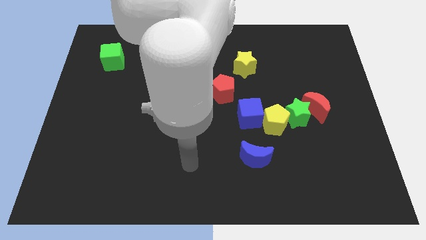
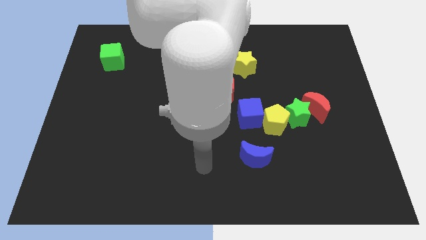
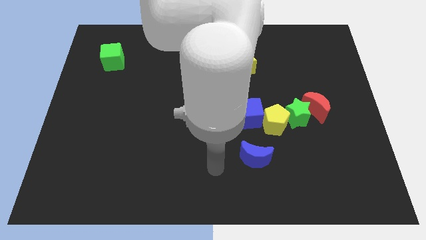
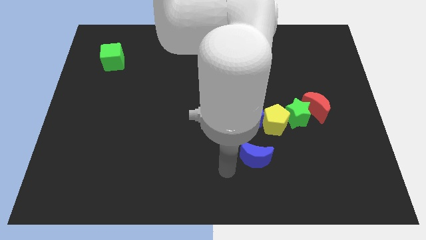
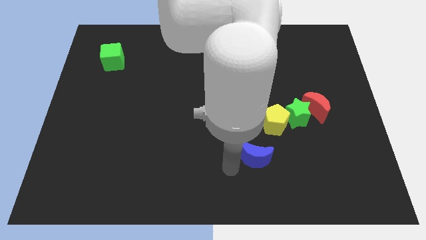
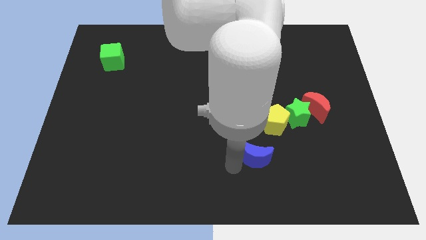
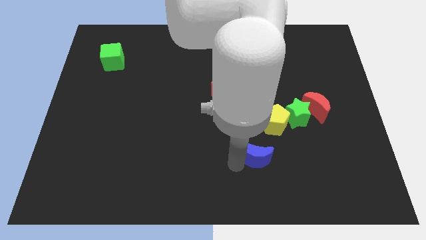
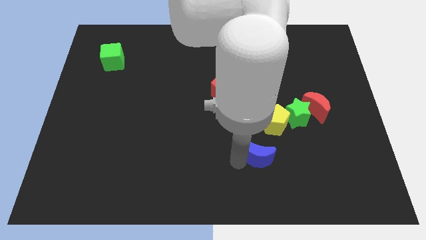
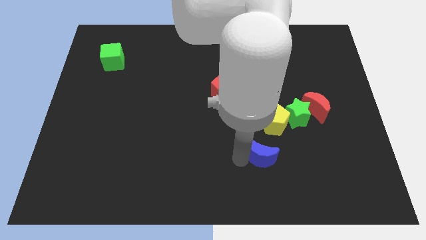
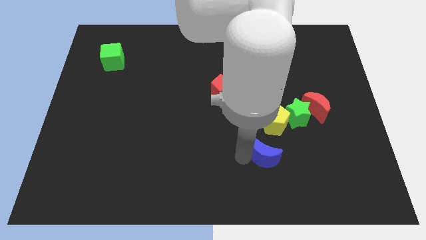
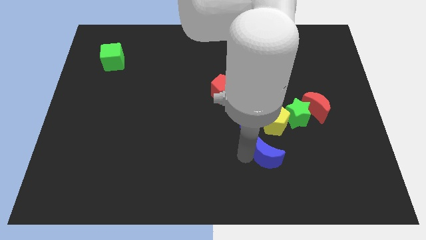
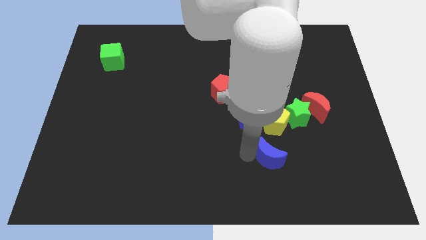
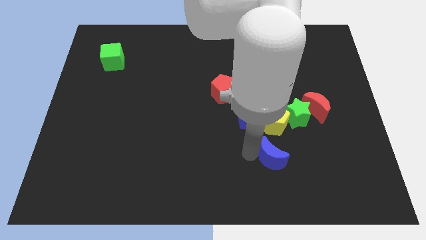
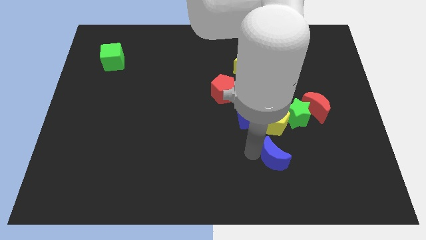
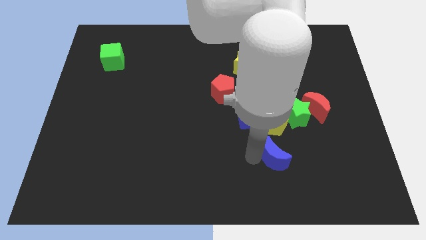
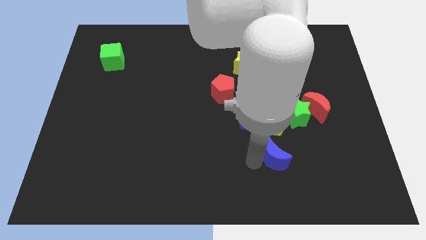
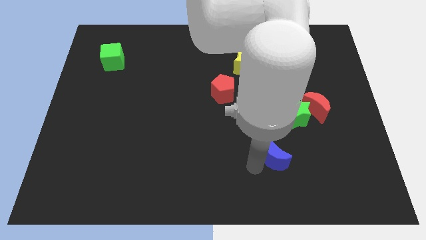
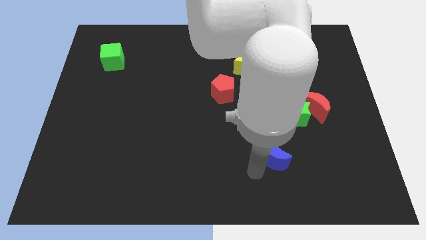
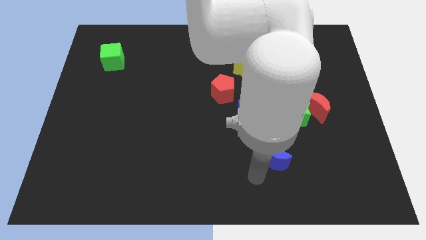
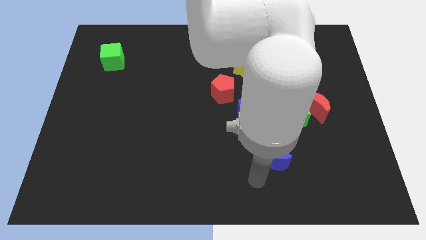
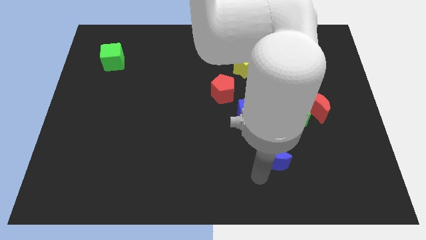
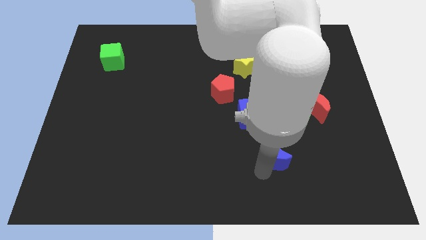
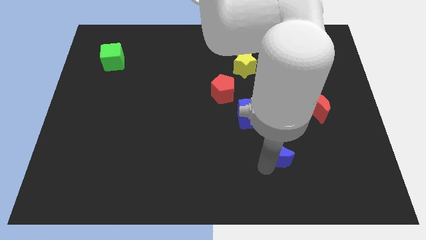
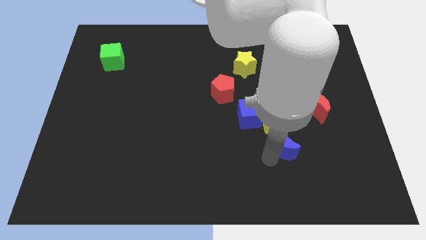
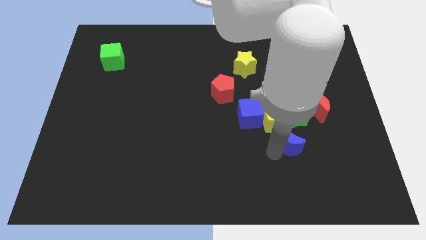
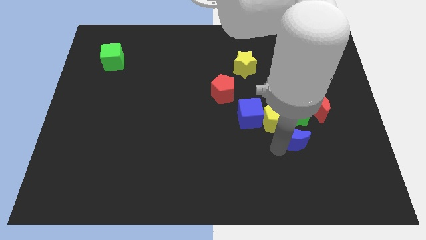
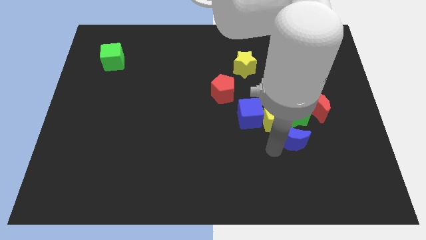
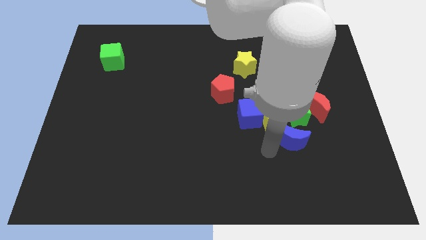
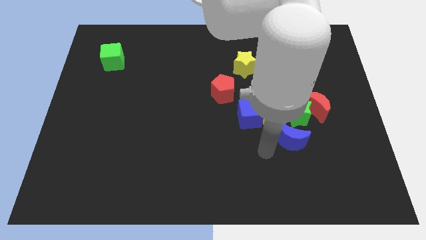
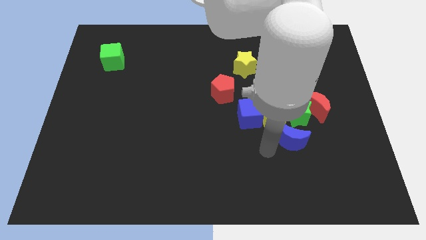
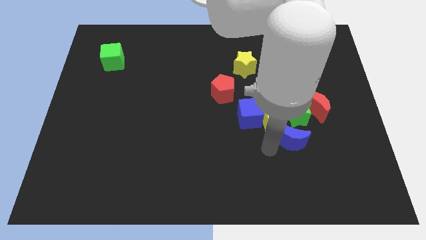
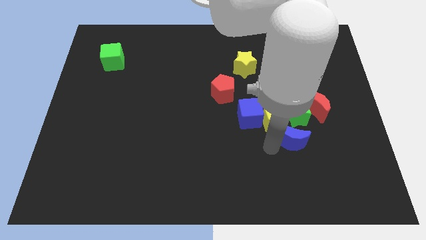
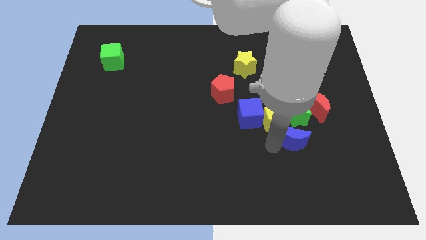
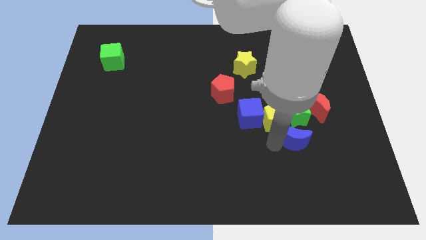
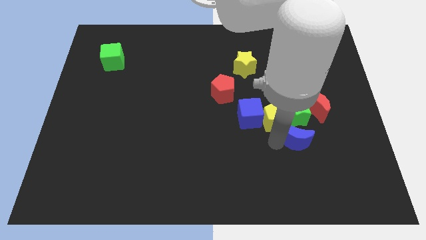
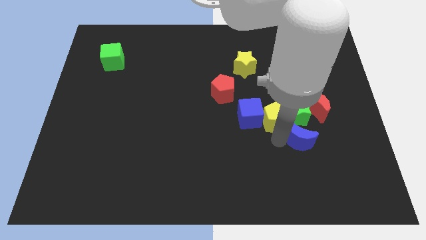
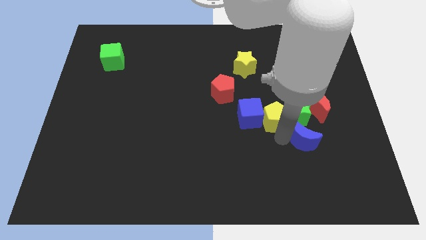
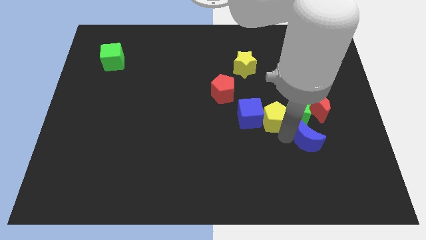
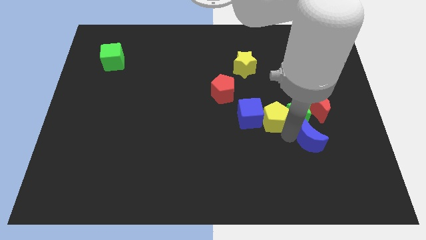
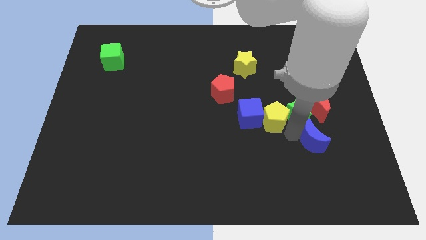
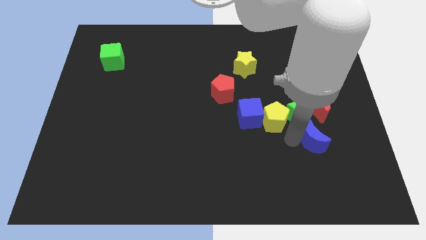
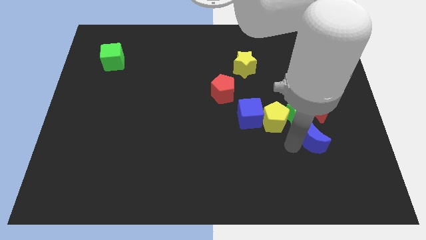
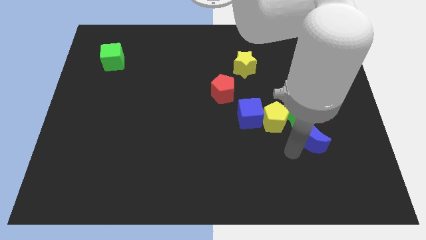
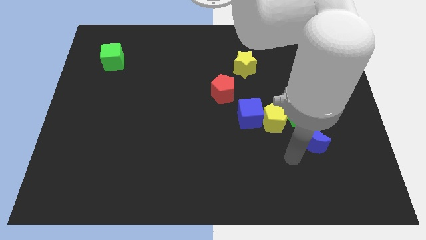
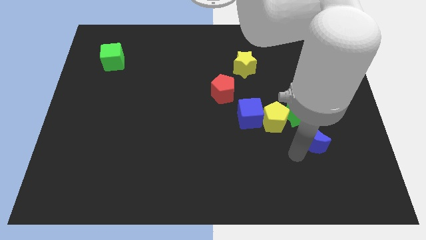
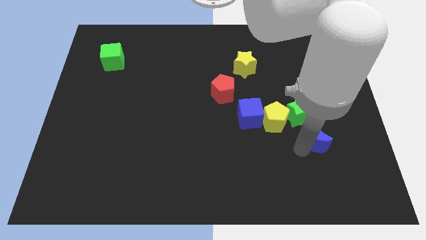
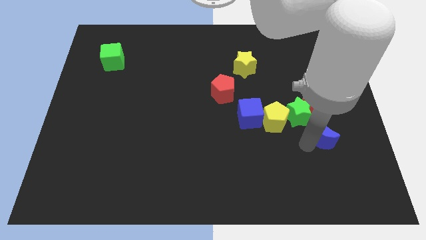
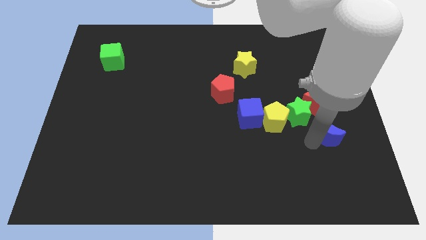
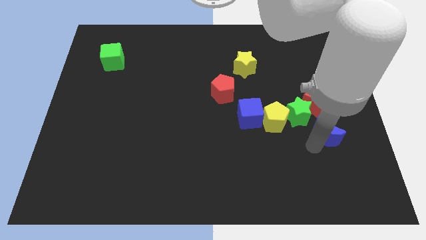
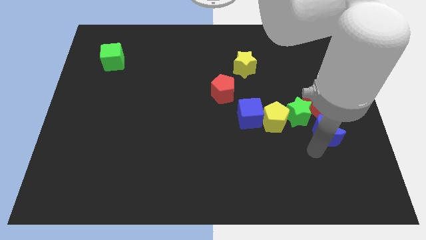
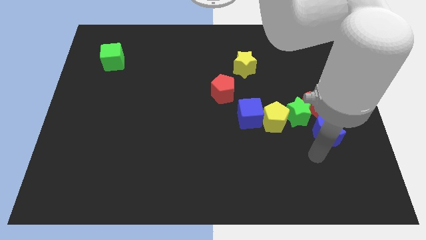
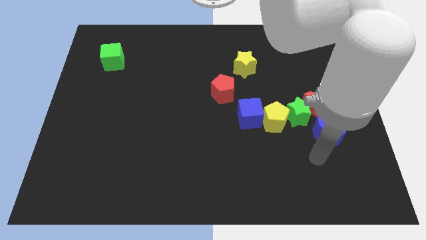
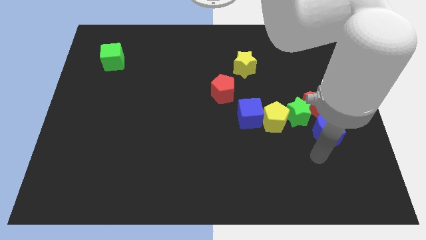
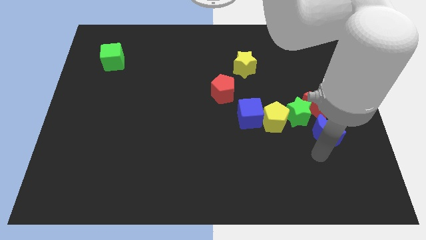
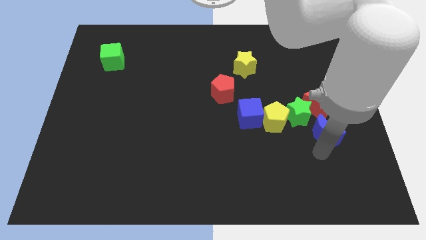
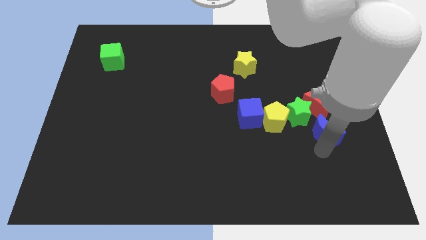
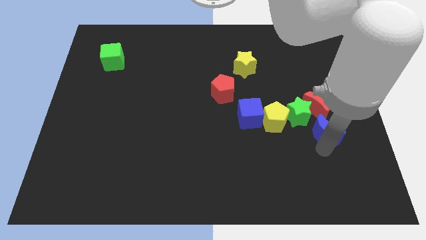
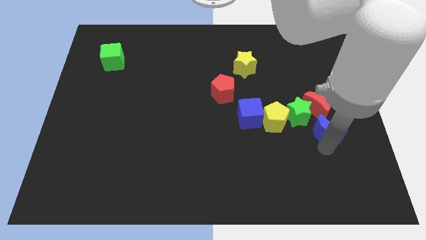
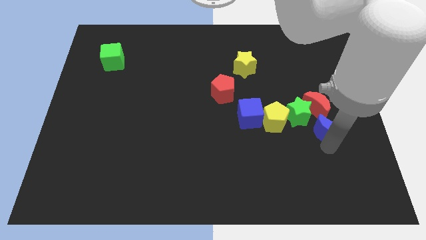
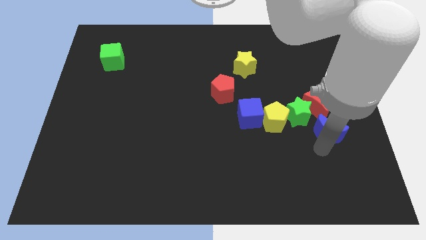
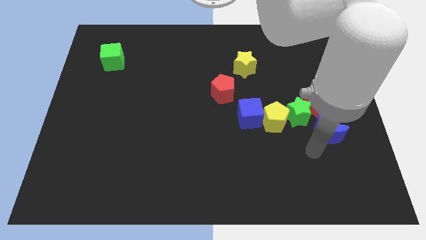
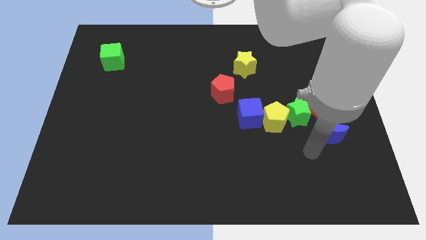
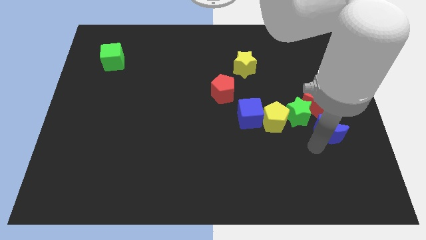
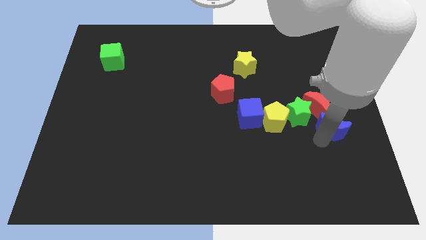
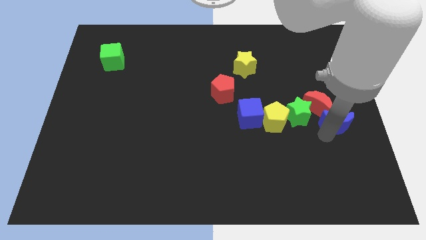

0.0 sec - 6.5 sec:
put the blue moon to the right side

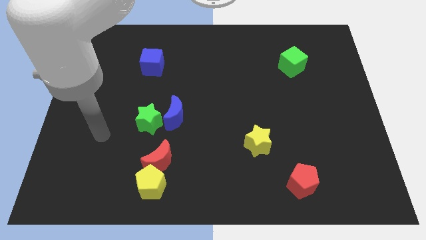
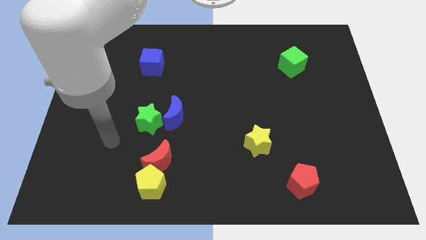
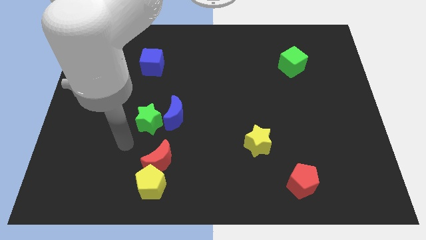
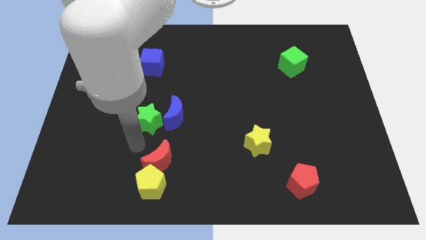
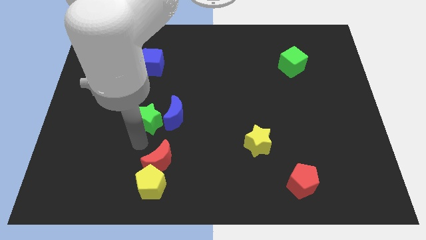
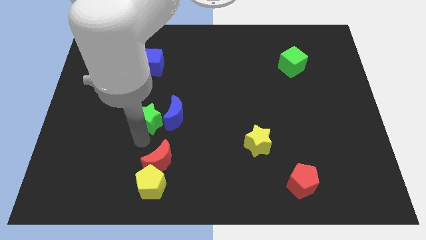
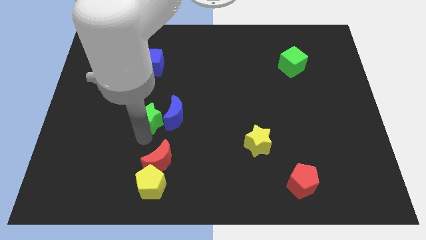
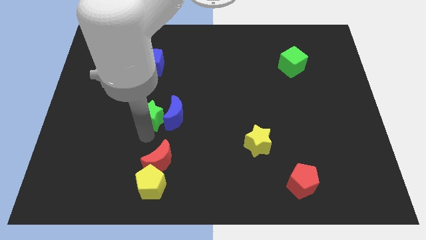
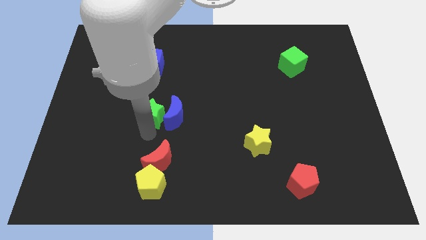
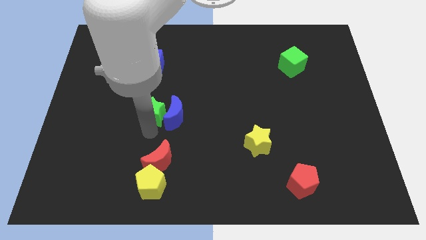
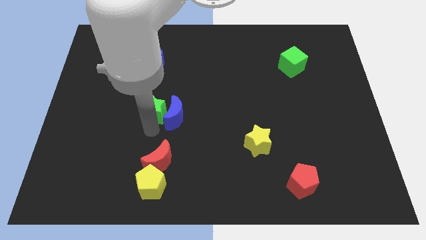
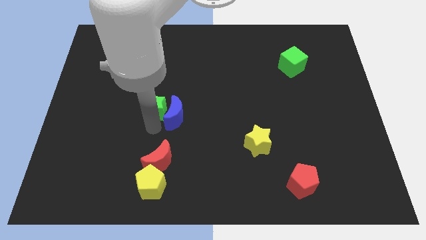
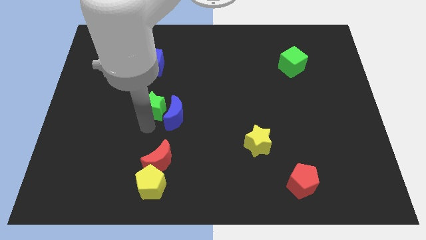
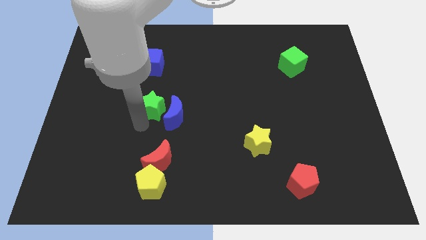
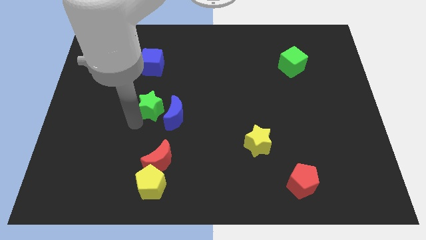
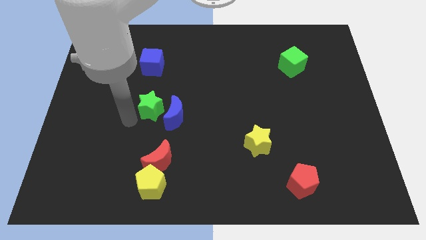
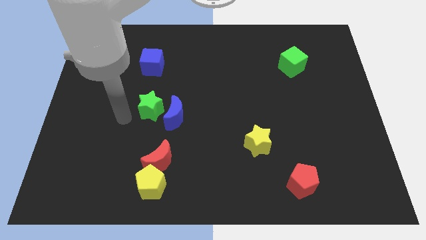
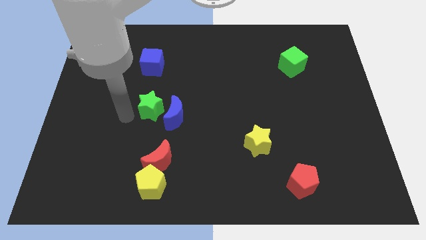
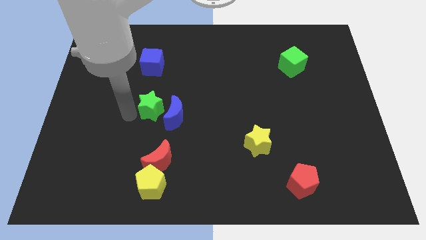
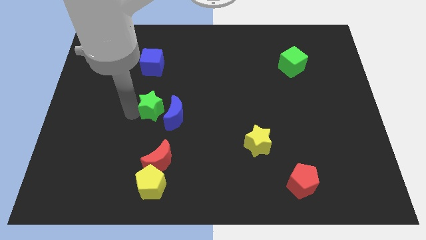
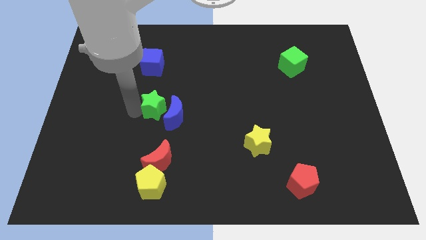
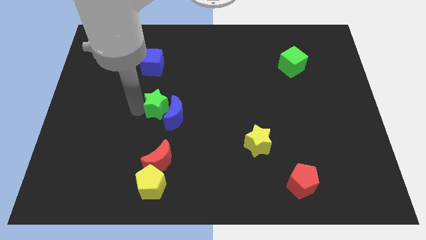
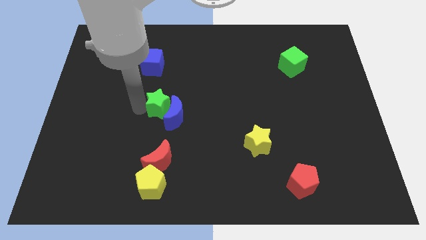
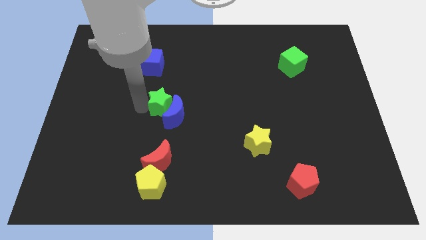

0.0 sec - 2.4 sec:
move the green star to the middle
